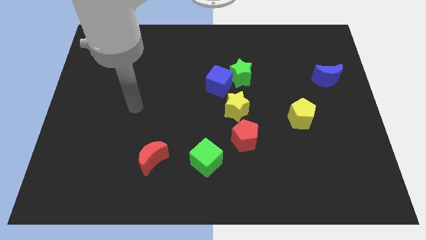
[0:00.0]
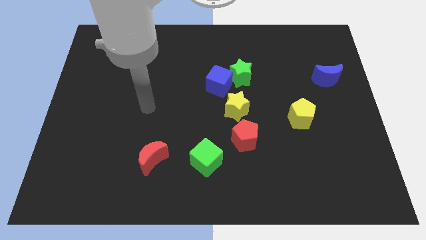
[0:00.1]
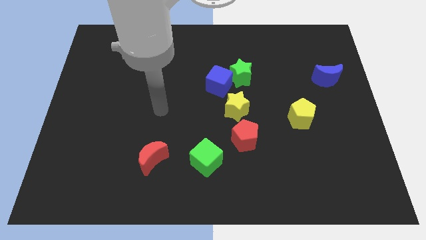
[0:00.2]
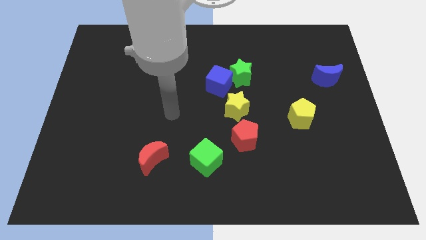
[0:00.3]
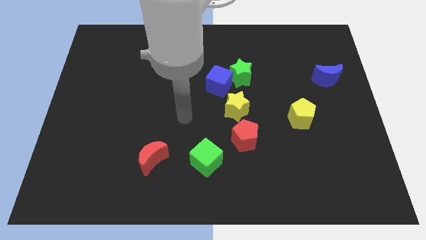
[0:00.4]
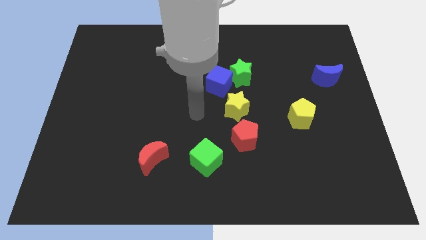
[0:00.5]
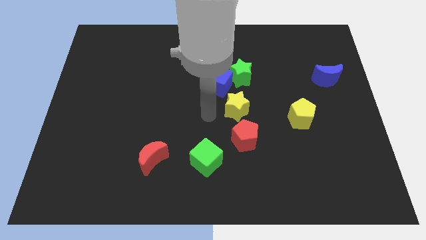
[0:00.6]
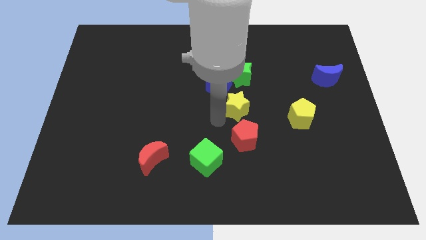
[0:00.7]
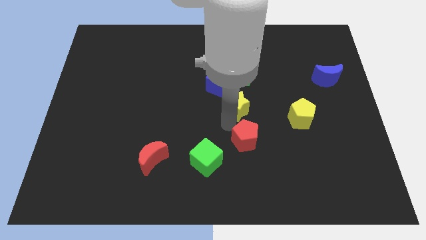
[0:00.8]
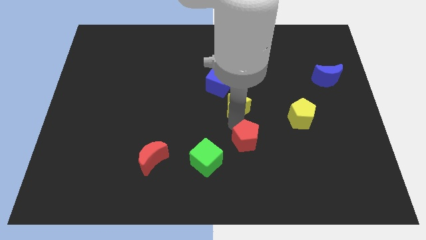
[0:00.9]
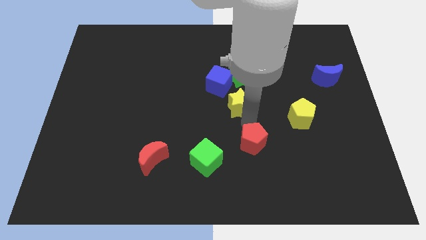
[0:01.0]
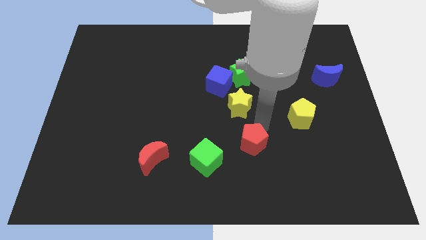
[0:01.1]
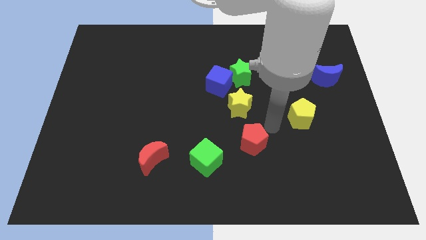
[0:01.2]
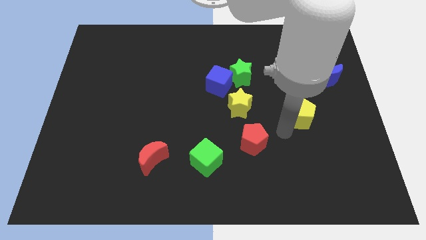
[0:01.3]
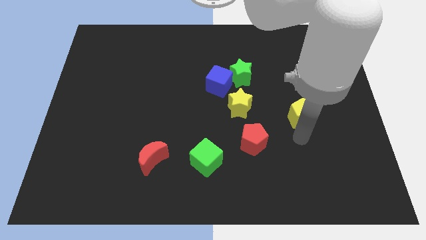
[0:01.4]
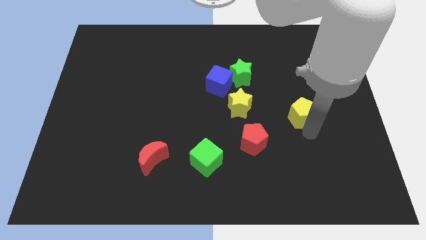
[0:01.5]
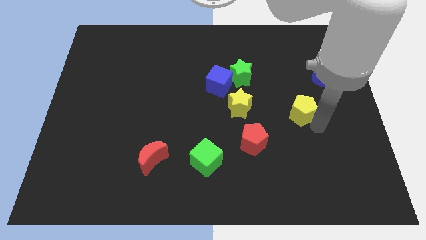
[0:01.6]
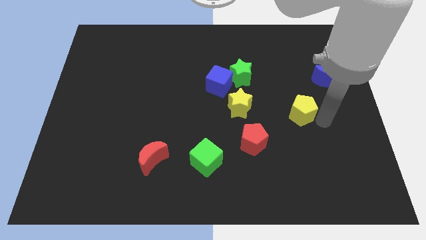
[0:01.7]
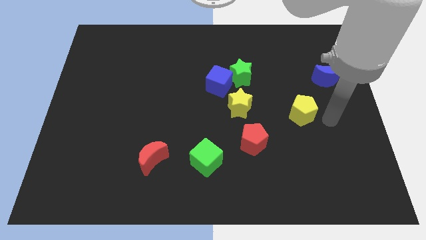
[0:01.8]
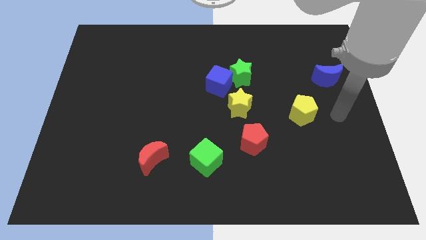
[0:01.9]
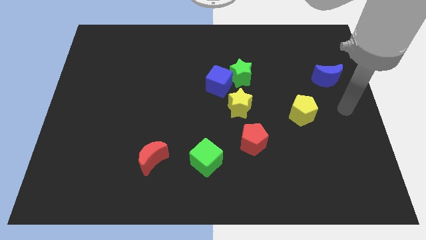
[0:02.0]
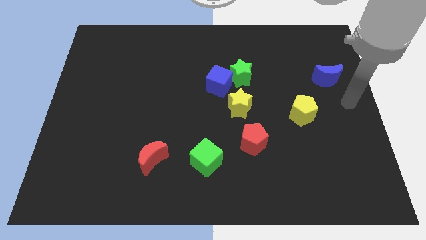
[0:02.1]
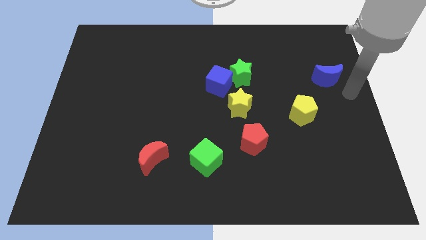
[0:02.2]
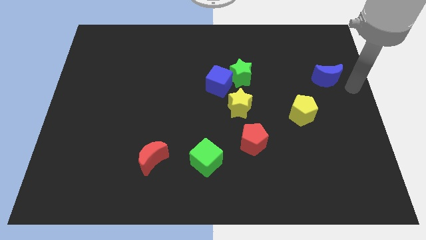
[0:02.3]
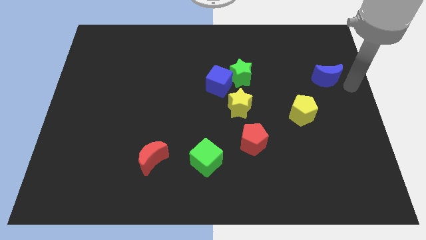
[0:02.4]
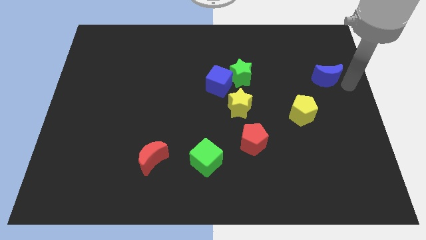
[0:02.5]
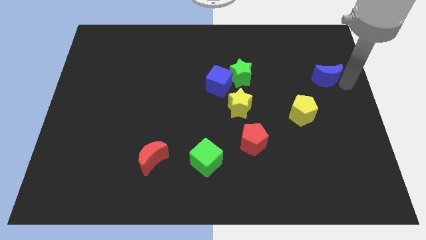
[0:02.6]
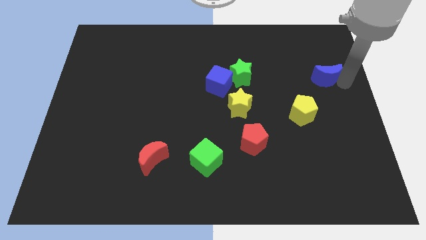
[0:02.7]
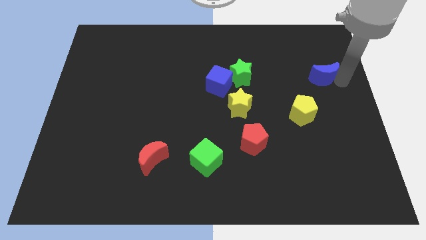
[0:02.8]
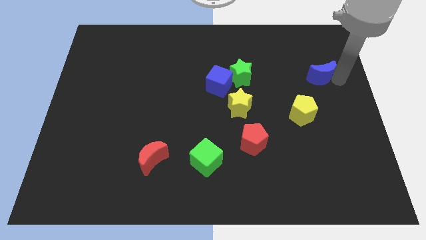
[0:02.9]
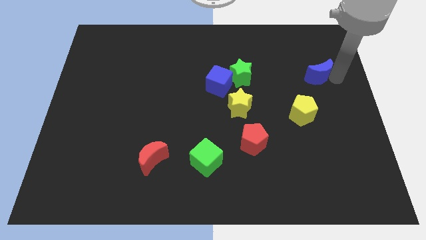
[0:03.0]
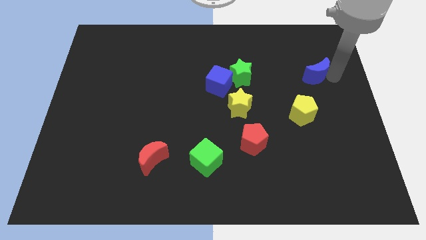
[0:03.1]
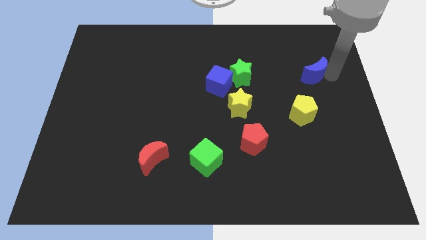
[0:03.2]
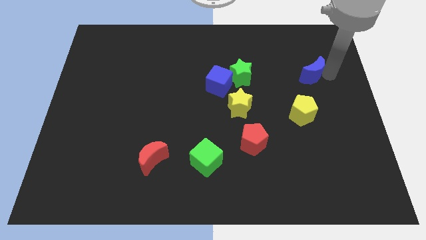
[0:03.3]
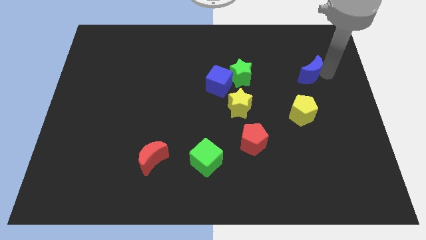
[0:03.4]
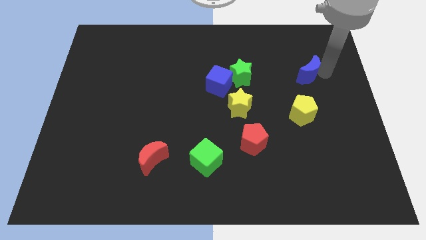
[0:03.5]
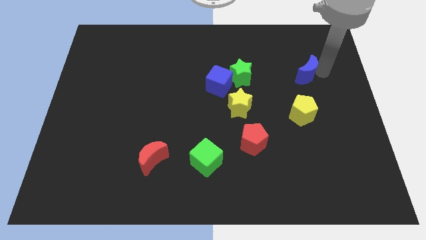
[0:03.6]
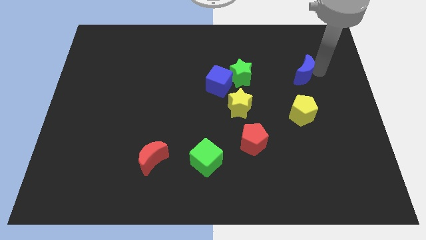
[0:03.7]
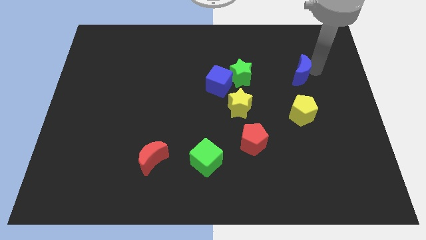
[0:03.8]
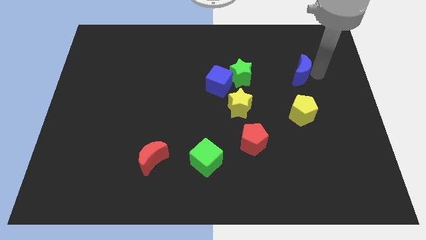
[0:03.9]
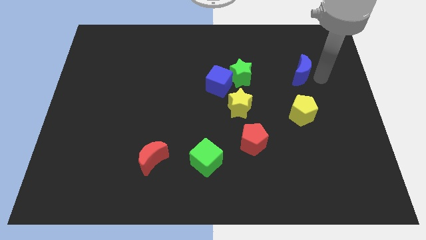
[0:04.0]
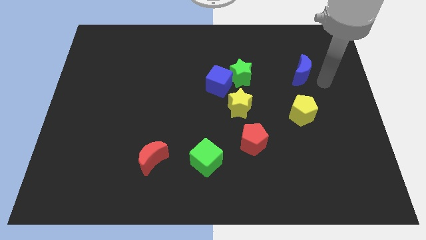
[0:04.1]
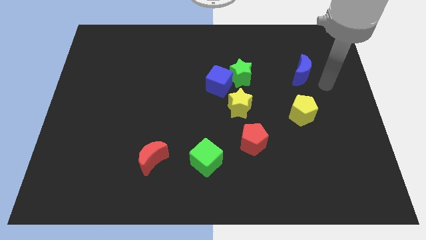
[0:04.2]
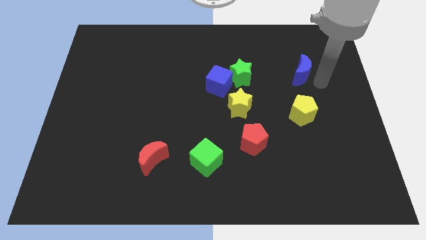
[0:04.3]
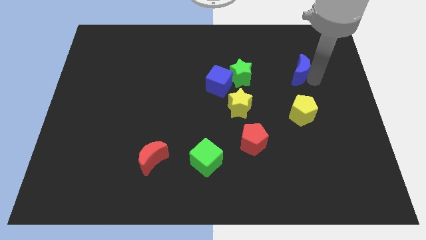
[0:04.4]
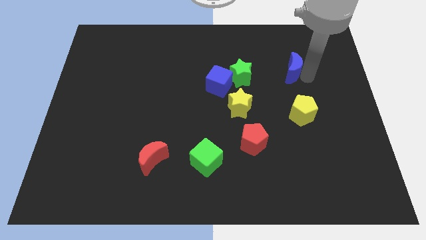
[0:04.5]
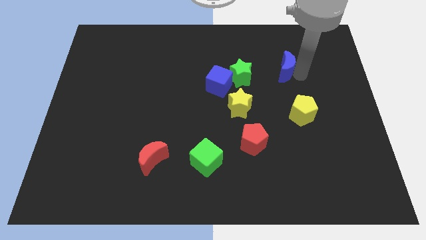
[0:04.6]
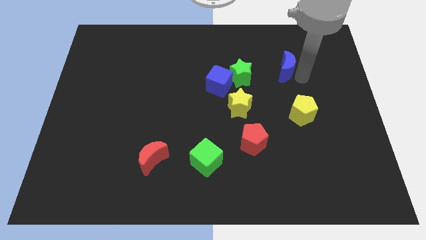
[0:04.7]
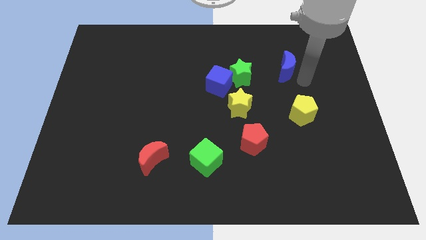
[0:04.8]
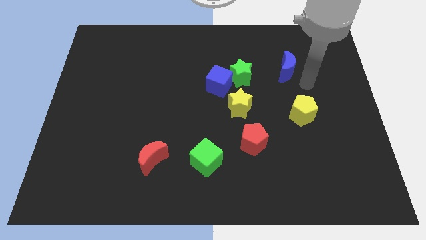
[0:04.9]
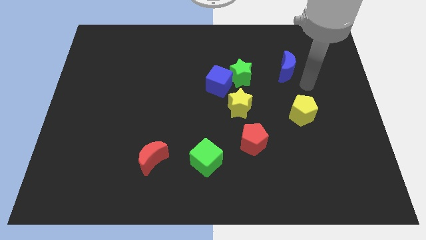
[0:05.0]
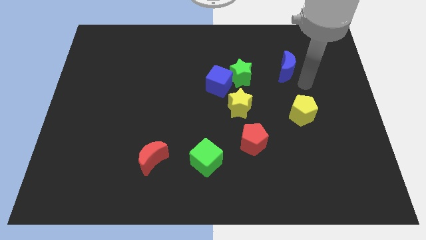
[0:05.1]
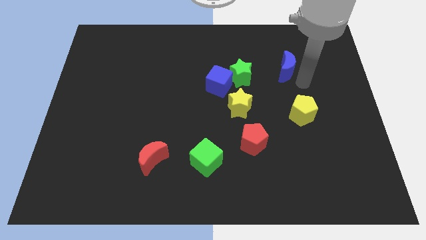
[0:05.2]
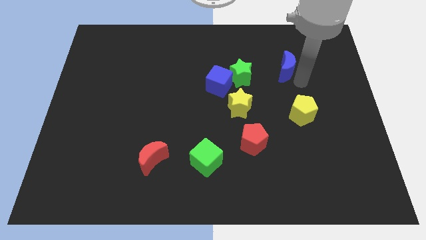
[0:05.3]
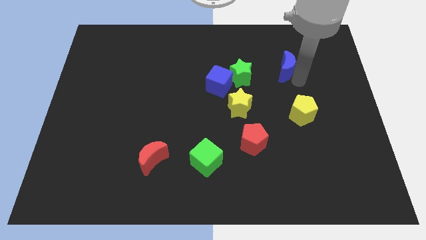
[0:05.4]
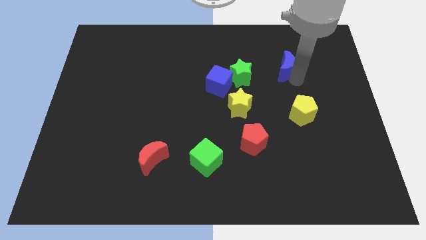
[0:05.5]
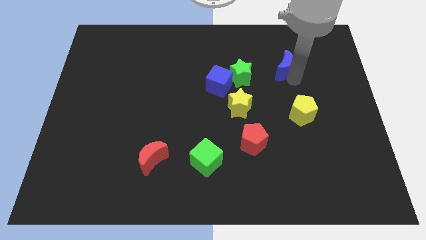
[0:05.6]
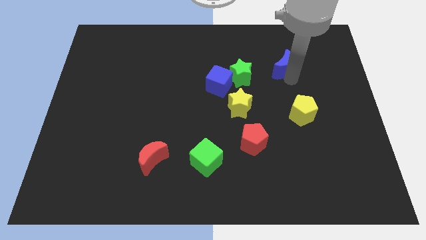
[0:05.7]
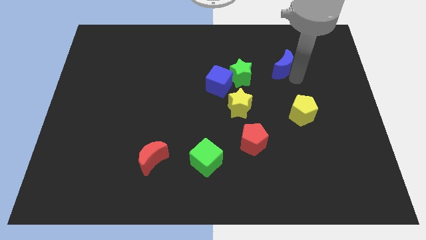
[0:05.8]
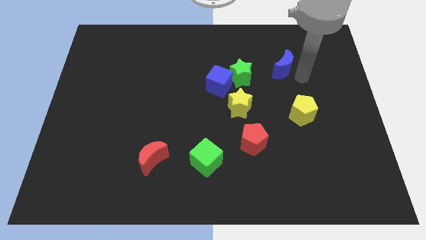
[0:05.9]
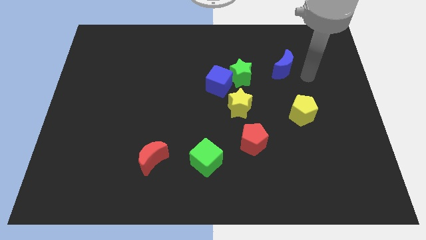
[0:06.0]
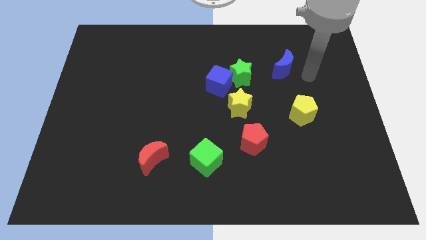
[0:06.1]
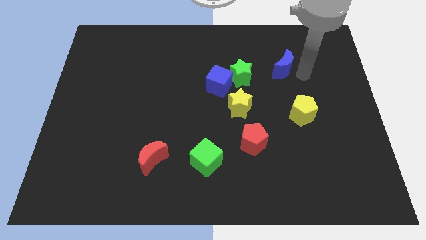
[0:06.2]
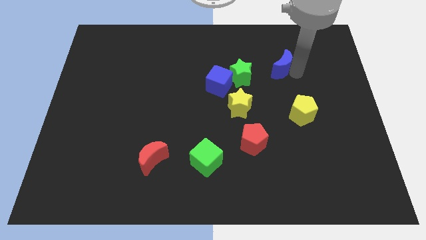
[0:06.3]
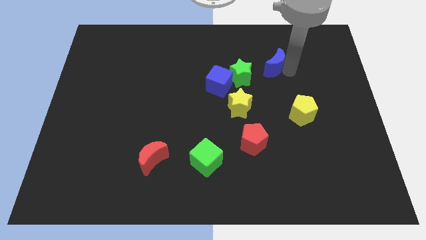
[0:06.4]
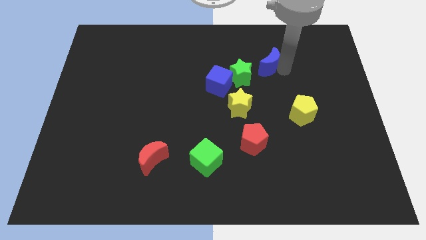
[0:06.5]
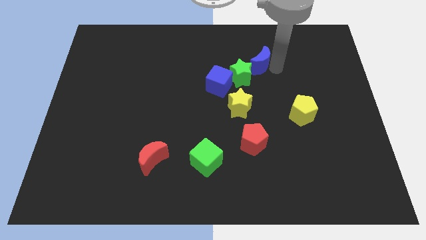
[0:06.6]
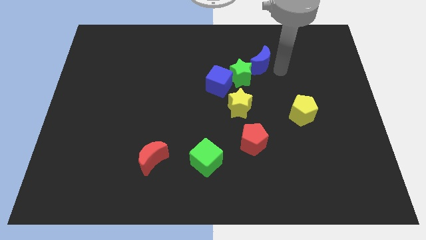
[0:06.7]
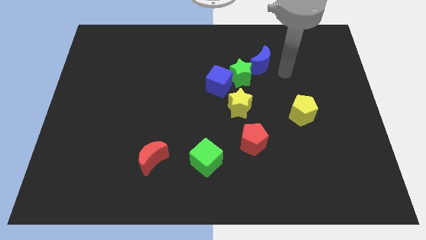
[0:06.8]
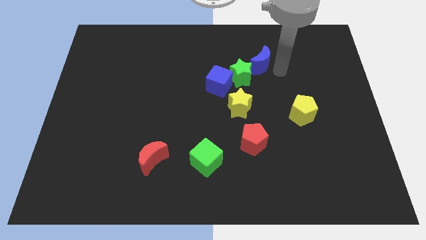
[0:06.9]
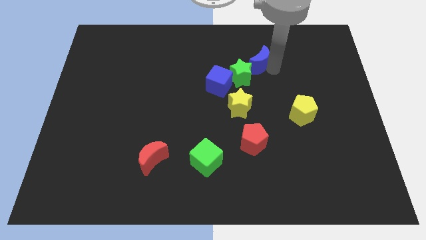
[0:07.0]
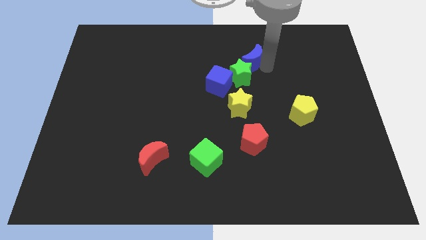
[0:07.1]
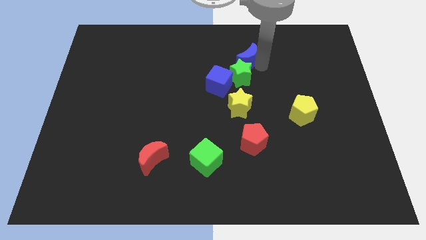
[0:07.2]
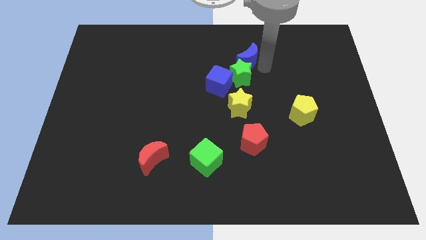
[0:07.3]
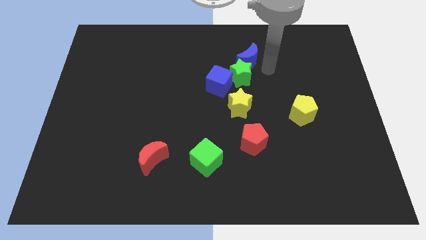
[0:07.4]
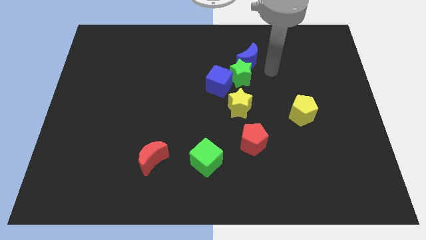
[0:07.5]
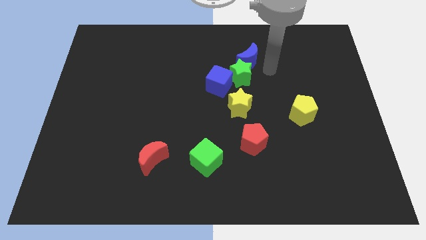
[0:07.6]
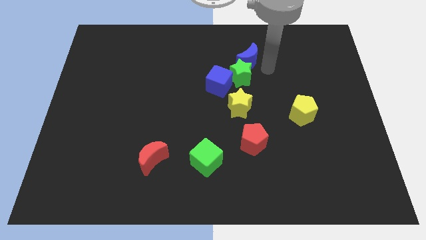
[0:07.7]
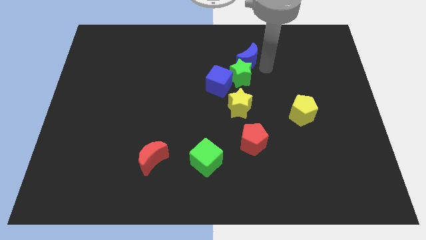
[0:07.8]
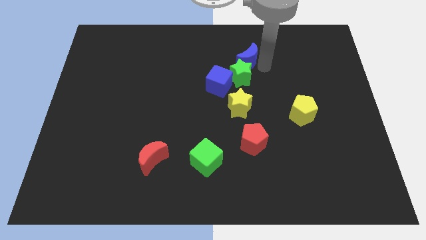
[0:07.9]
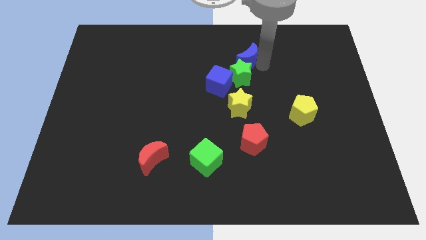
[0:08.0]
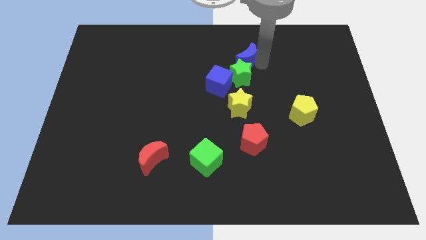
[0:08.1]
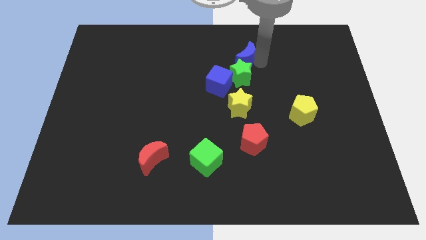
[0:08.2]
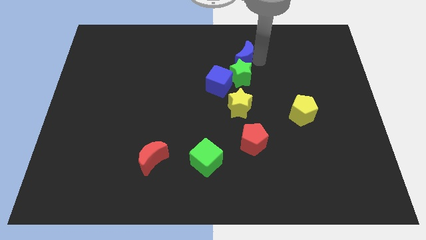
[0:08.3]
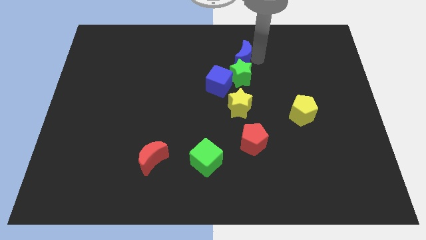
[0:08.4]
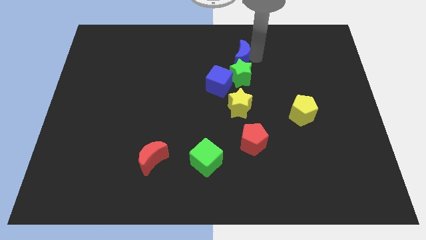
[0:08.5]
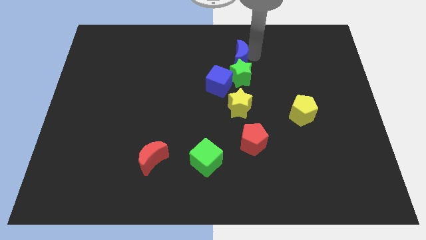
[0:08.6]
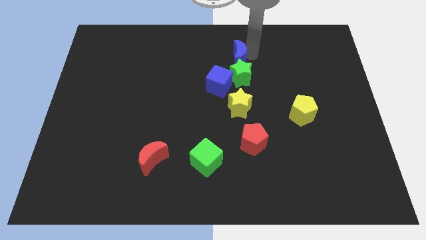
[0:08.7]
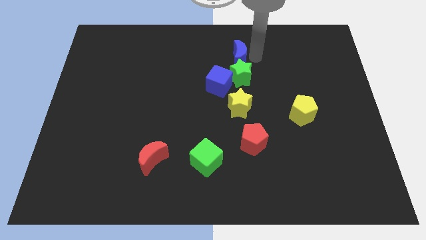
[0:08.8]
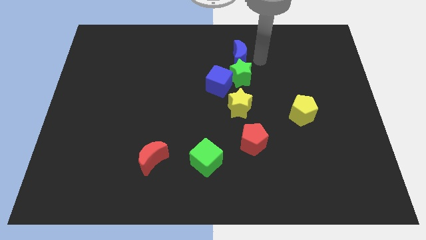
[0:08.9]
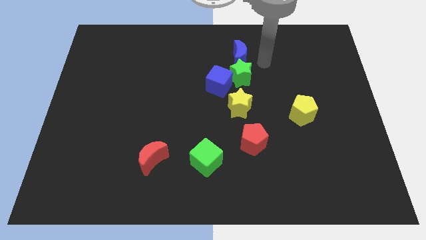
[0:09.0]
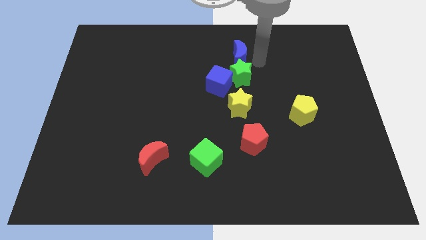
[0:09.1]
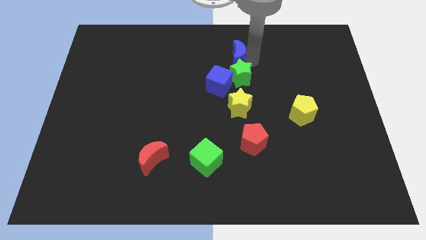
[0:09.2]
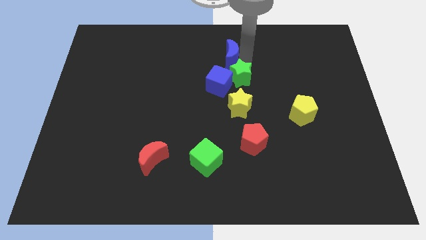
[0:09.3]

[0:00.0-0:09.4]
move the blue moon to the top of the blue cube
